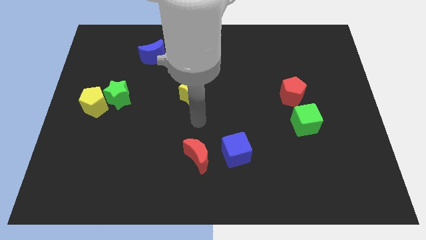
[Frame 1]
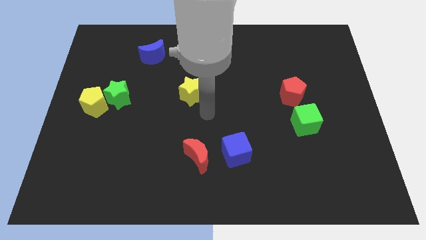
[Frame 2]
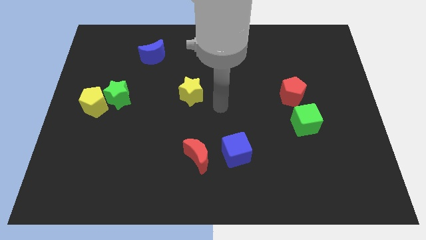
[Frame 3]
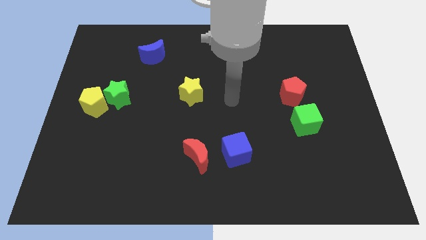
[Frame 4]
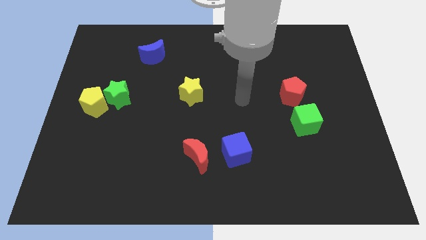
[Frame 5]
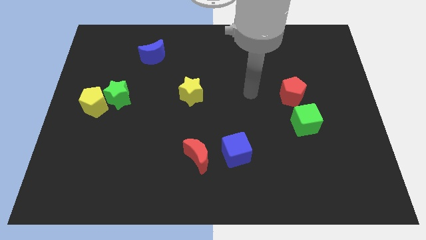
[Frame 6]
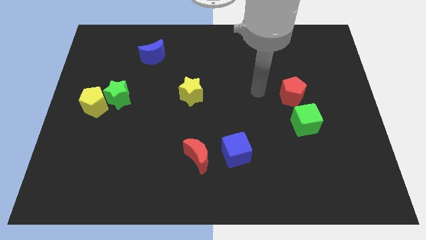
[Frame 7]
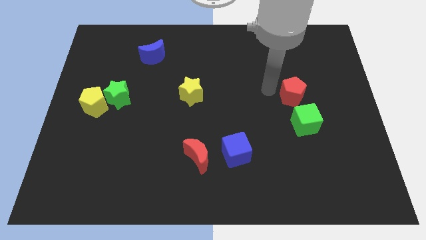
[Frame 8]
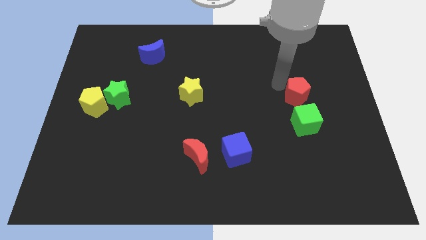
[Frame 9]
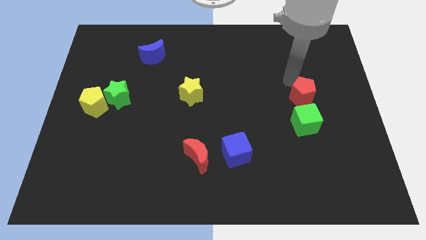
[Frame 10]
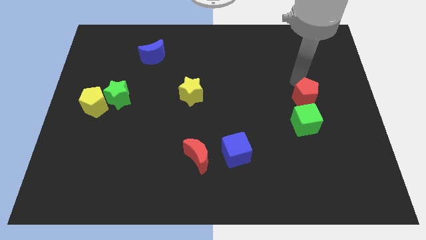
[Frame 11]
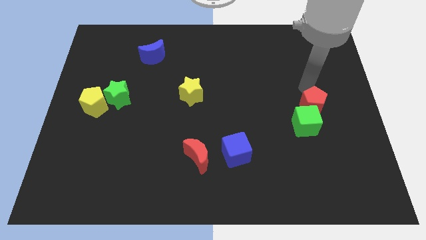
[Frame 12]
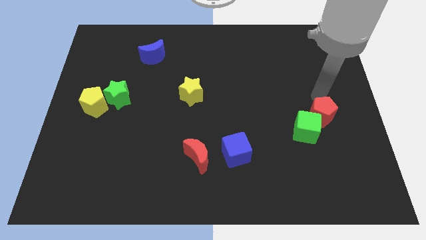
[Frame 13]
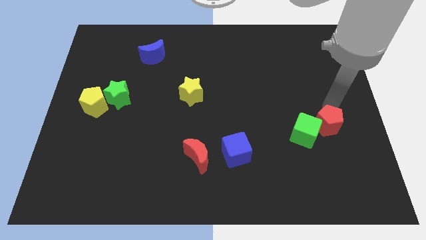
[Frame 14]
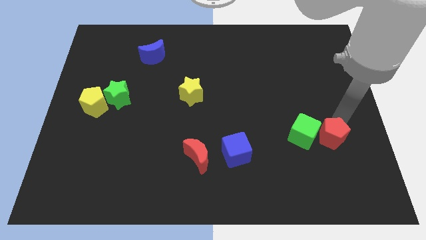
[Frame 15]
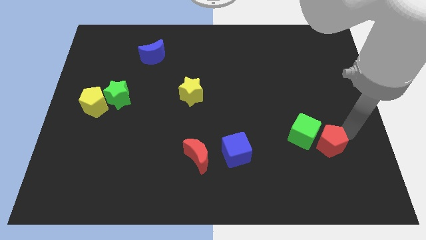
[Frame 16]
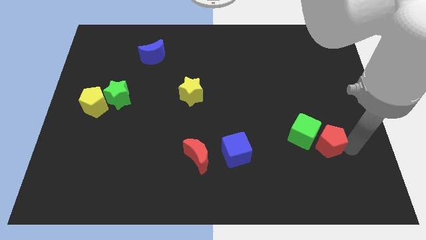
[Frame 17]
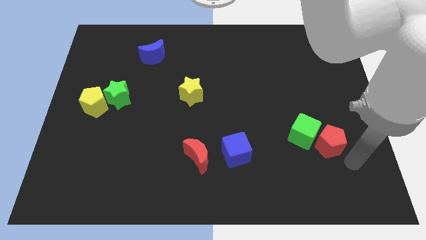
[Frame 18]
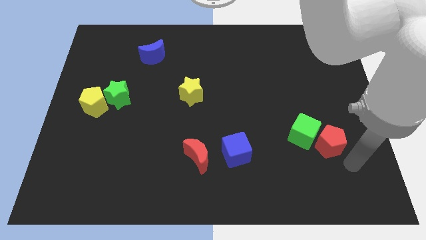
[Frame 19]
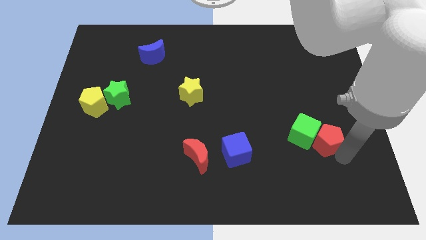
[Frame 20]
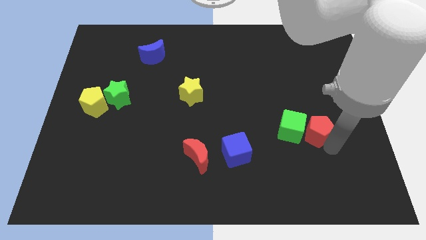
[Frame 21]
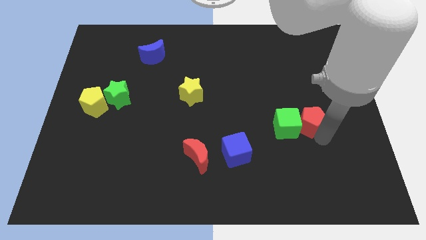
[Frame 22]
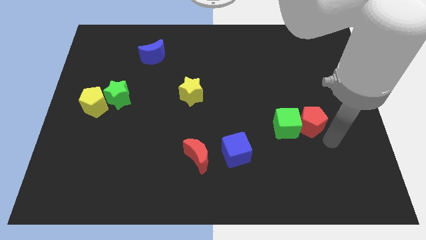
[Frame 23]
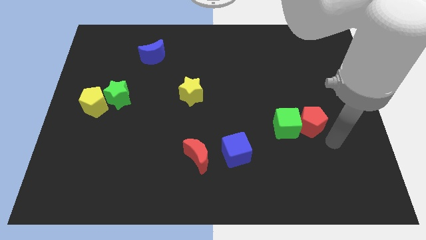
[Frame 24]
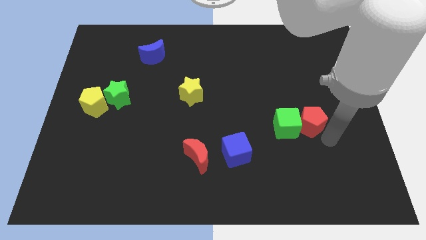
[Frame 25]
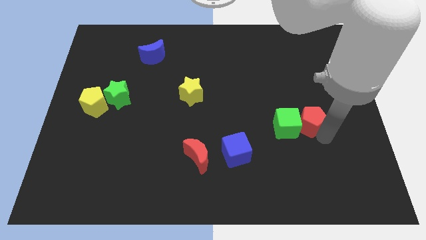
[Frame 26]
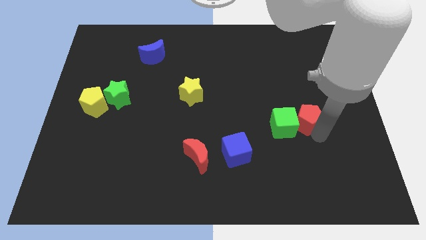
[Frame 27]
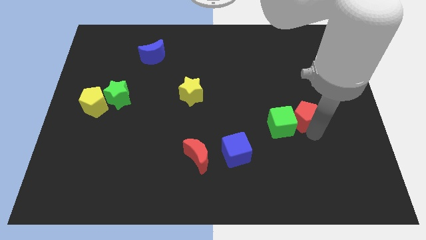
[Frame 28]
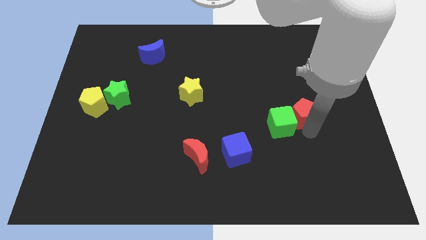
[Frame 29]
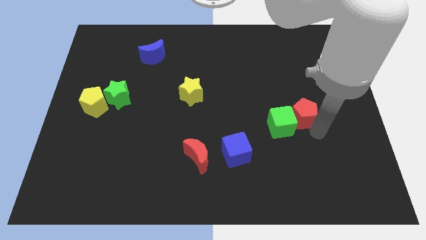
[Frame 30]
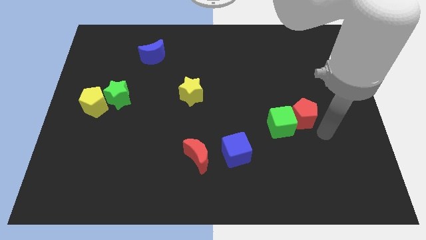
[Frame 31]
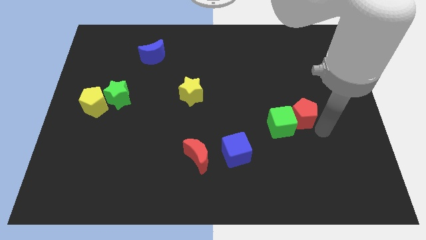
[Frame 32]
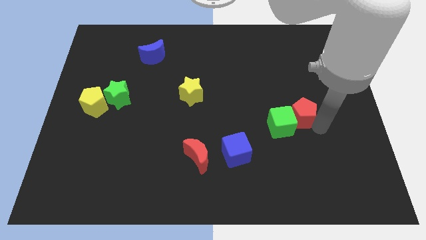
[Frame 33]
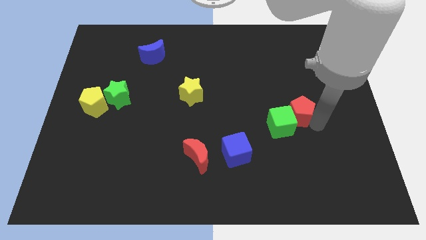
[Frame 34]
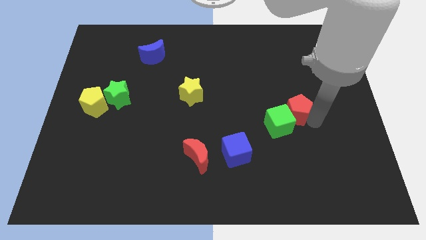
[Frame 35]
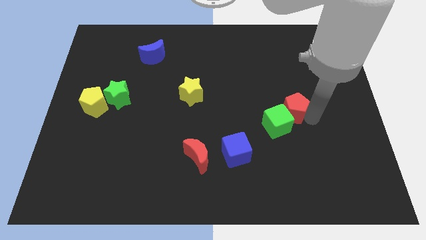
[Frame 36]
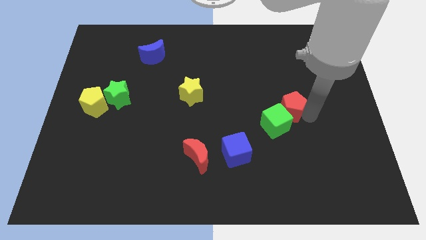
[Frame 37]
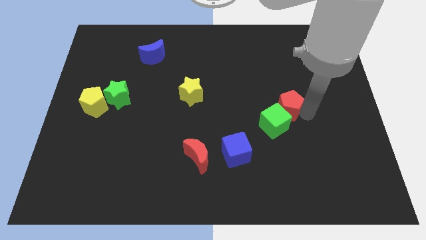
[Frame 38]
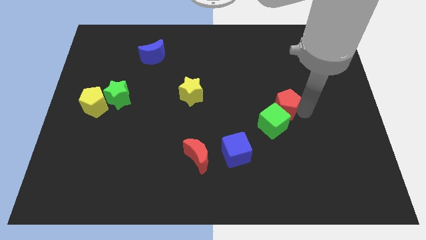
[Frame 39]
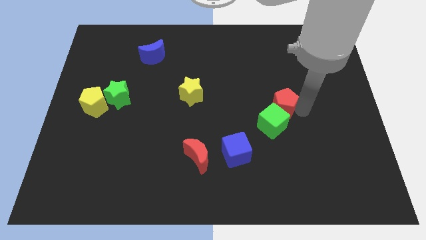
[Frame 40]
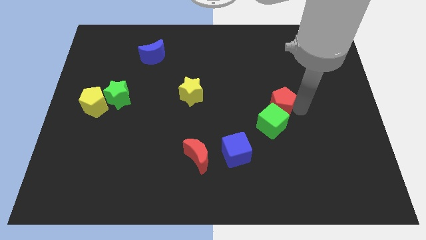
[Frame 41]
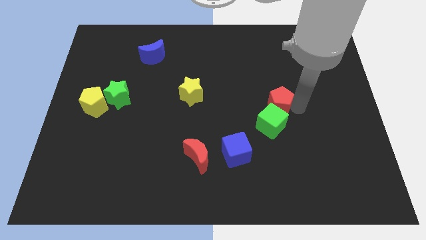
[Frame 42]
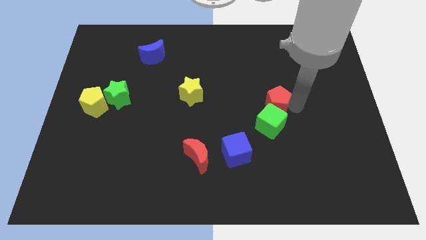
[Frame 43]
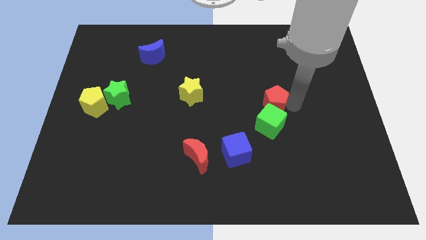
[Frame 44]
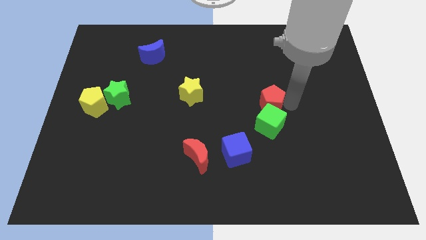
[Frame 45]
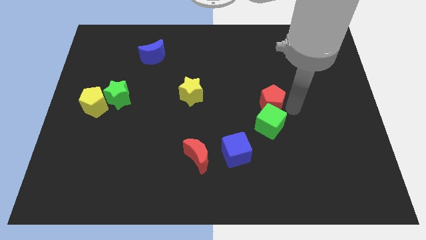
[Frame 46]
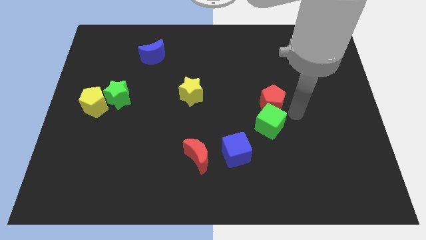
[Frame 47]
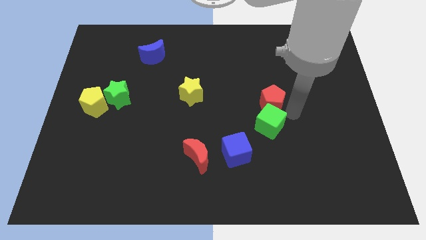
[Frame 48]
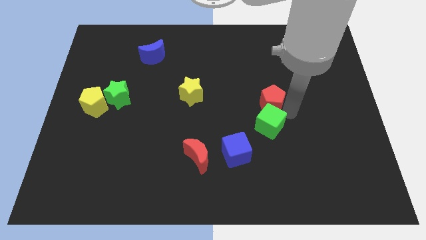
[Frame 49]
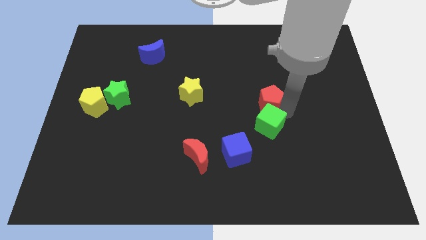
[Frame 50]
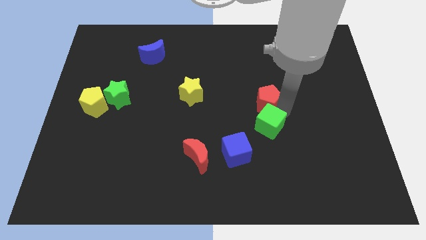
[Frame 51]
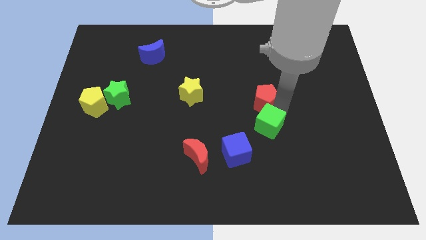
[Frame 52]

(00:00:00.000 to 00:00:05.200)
move the red pentagon a bit left

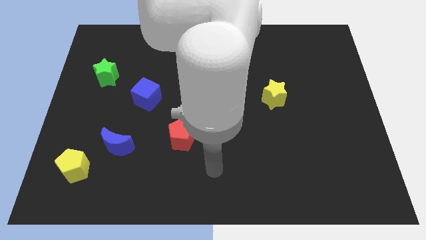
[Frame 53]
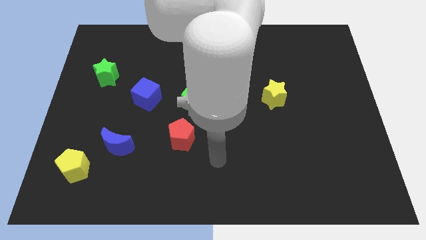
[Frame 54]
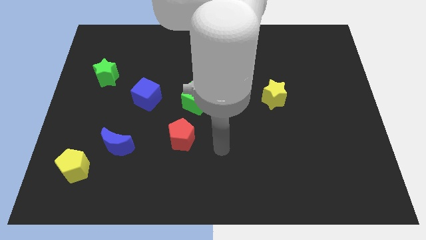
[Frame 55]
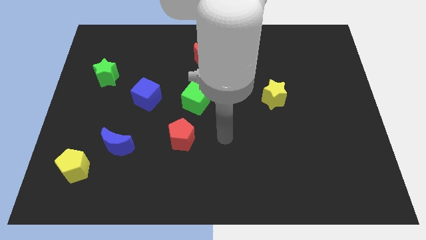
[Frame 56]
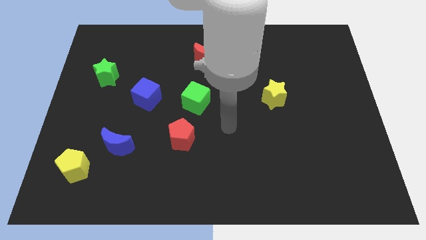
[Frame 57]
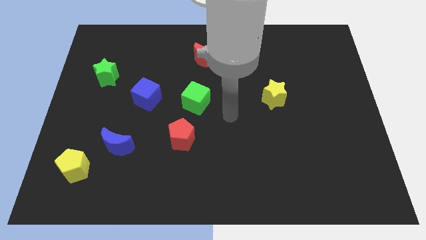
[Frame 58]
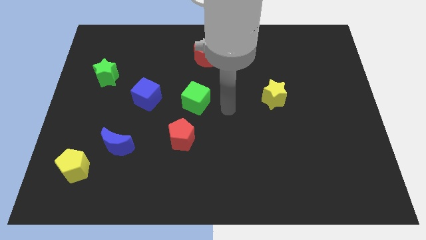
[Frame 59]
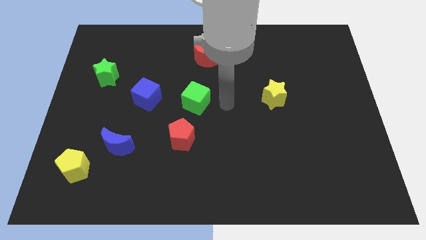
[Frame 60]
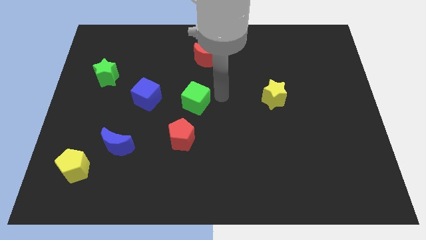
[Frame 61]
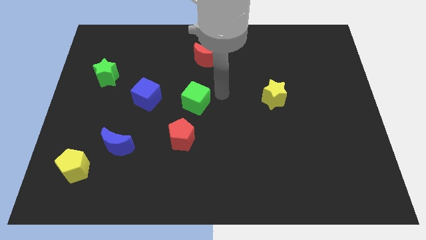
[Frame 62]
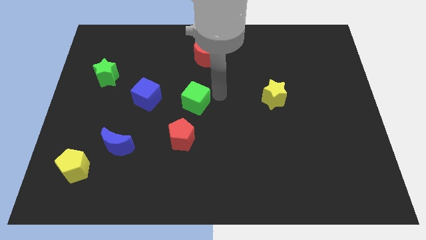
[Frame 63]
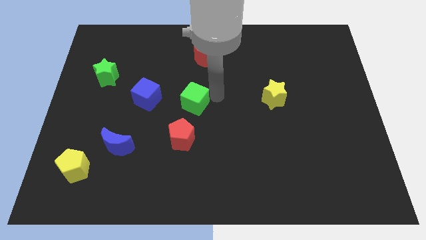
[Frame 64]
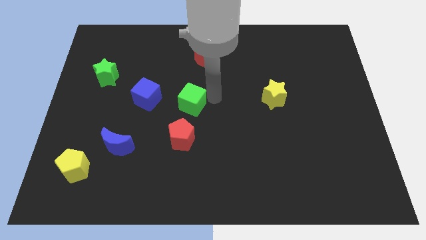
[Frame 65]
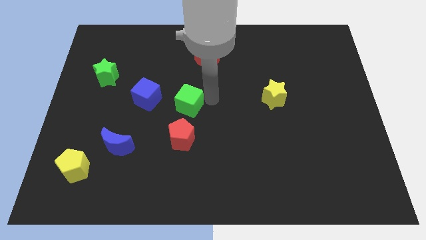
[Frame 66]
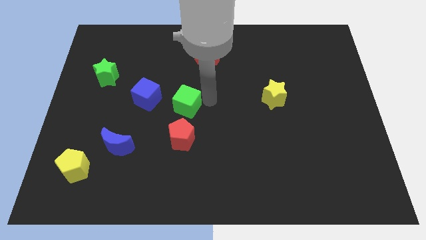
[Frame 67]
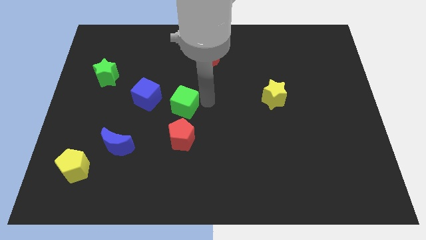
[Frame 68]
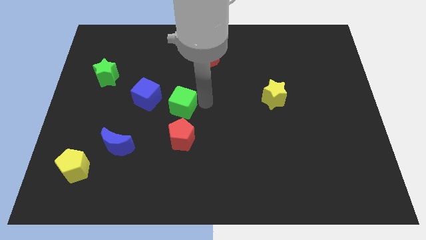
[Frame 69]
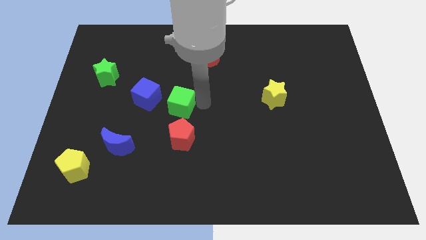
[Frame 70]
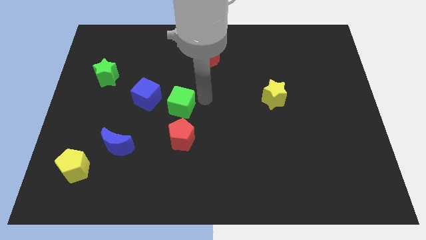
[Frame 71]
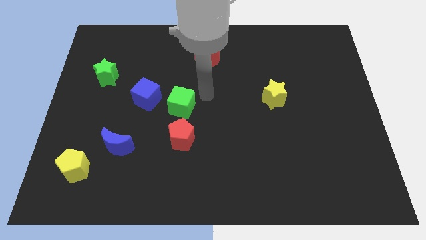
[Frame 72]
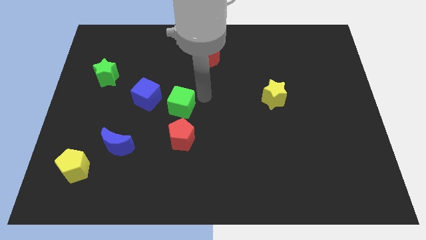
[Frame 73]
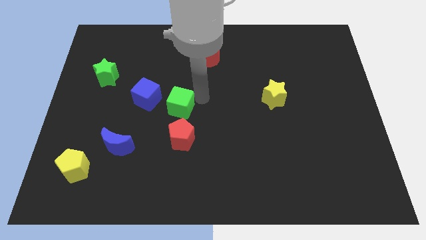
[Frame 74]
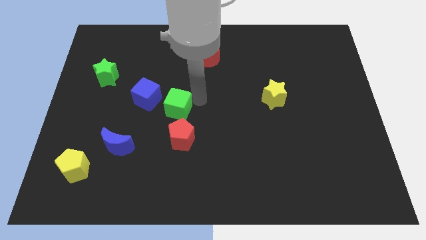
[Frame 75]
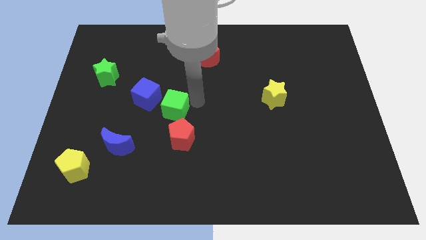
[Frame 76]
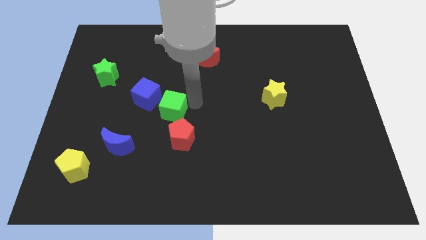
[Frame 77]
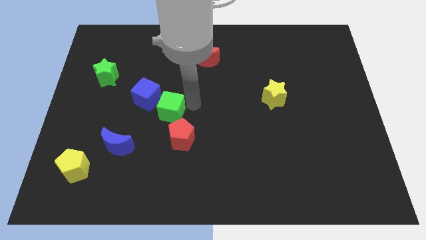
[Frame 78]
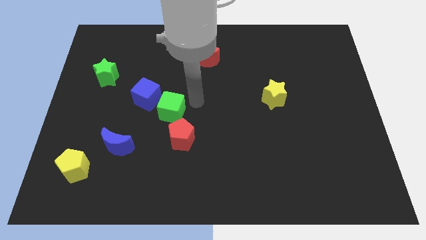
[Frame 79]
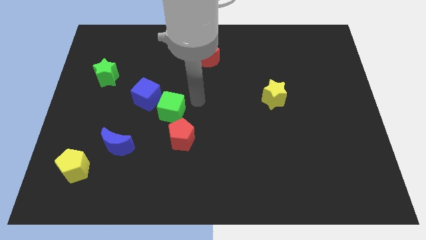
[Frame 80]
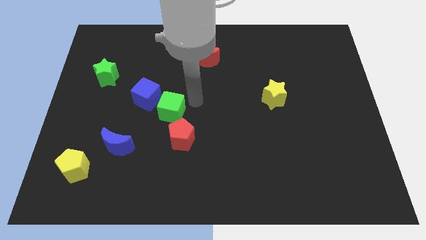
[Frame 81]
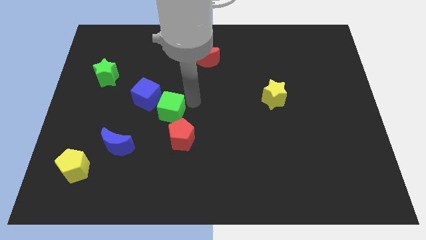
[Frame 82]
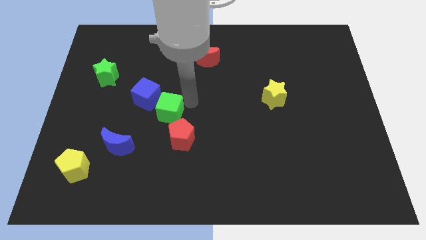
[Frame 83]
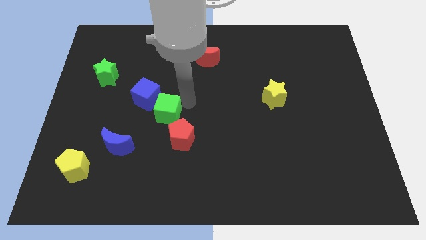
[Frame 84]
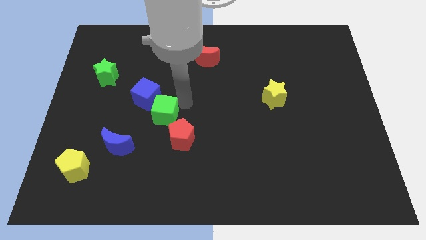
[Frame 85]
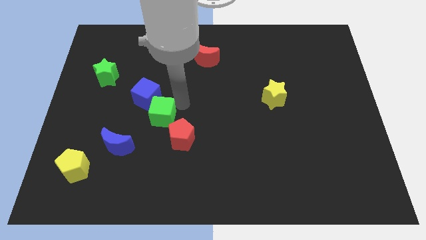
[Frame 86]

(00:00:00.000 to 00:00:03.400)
push the green cube left a bit
